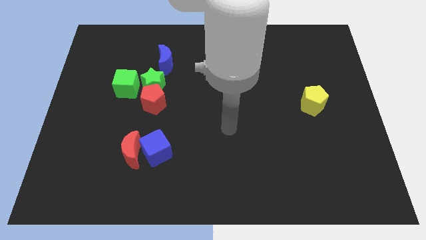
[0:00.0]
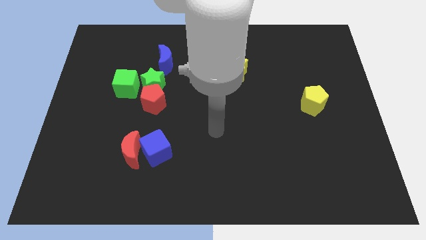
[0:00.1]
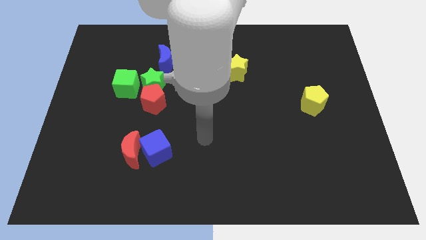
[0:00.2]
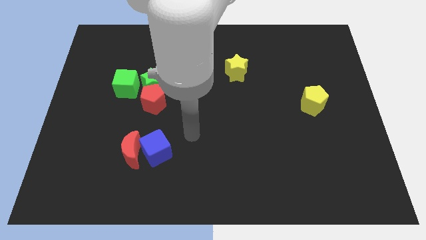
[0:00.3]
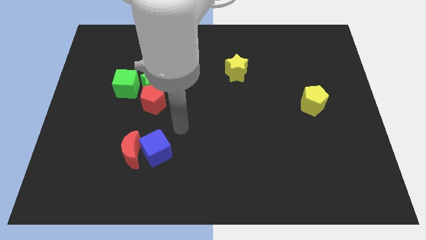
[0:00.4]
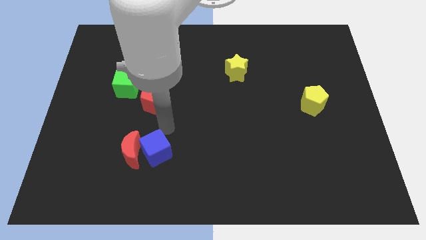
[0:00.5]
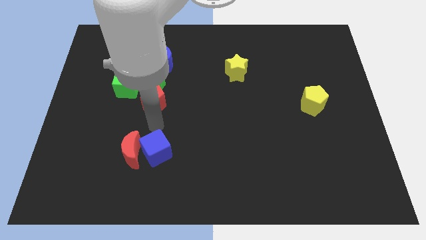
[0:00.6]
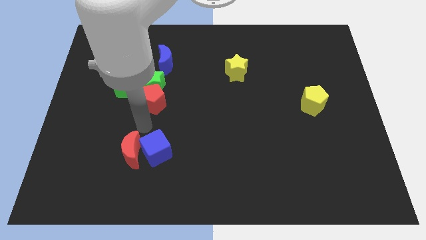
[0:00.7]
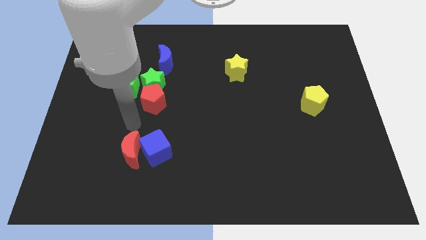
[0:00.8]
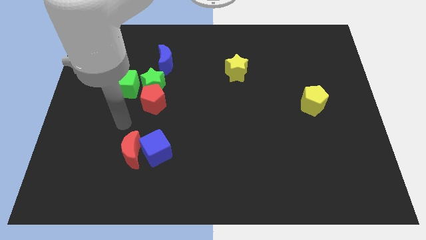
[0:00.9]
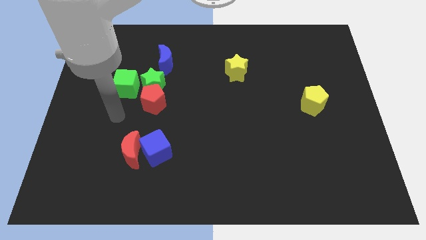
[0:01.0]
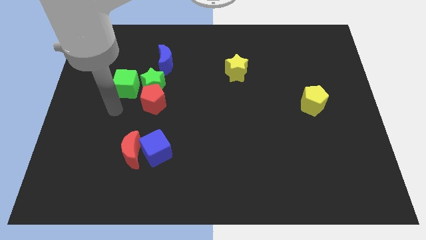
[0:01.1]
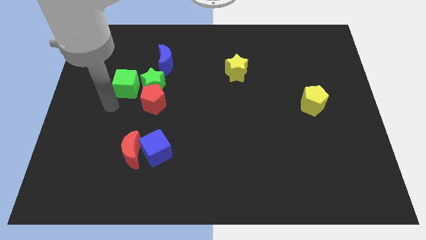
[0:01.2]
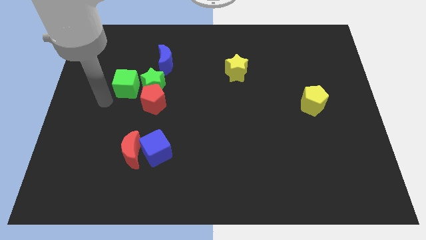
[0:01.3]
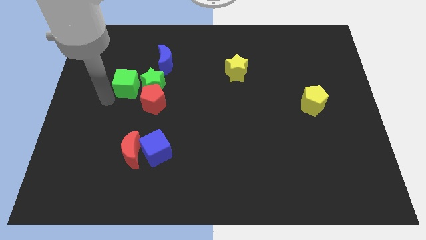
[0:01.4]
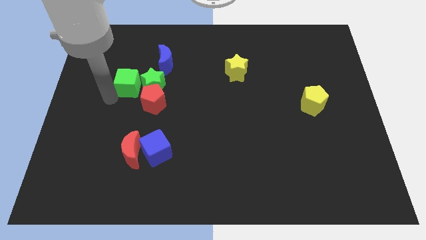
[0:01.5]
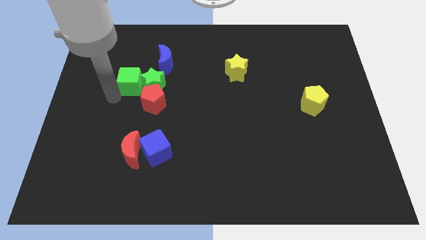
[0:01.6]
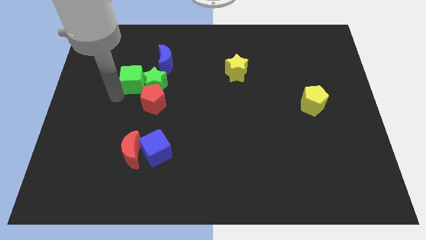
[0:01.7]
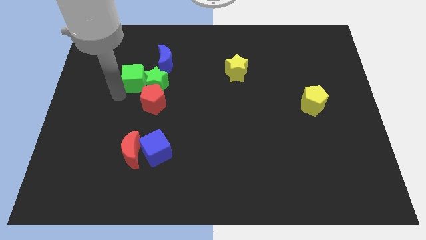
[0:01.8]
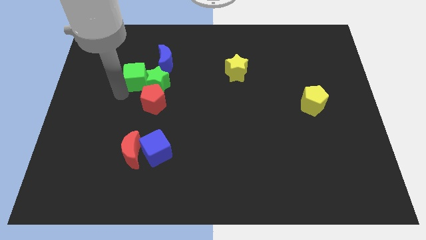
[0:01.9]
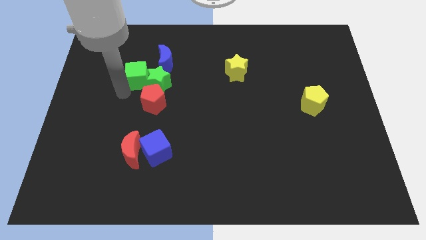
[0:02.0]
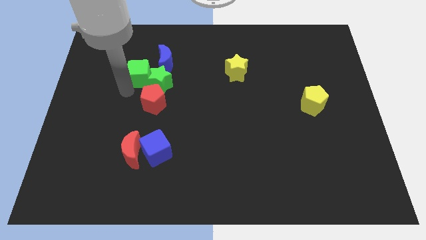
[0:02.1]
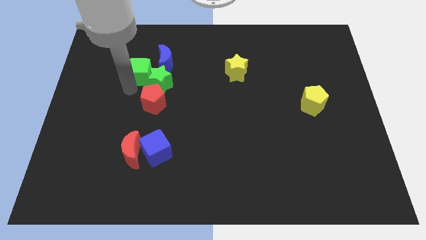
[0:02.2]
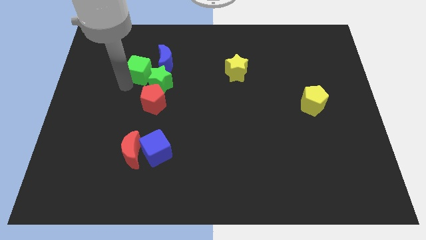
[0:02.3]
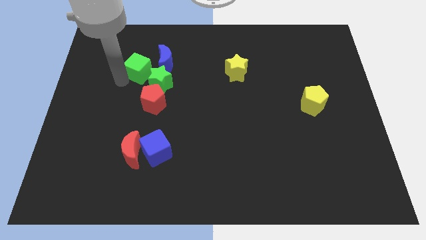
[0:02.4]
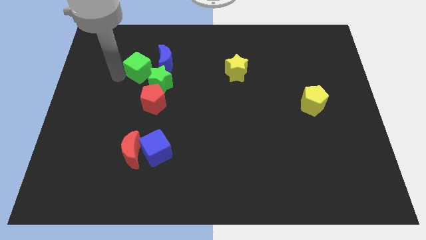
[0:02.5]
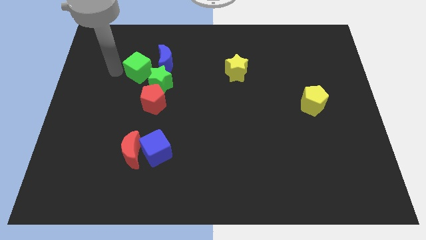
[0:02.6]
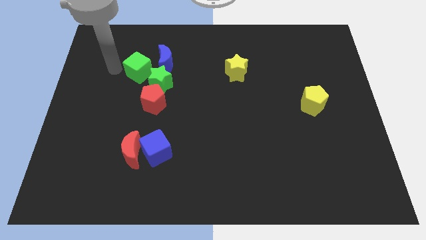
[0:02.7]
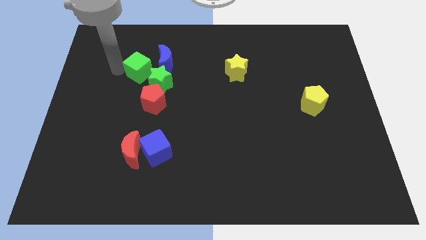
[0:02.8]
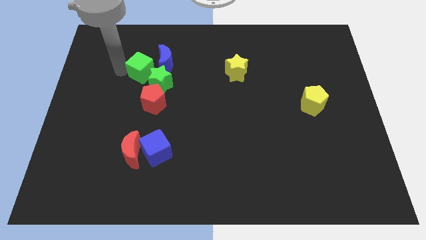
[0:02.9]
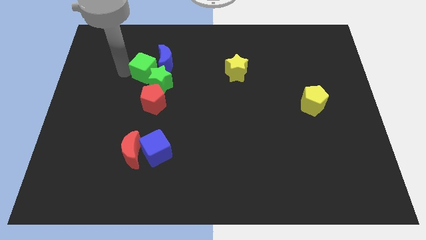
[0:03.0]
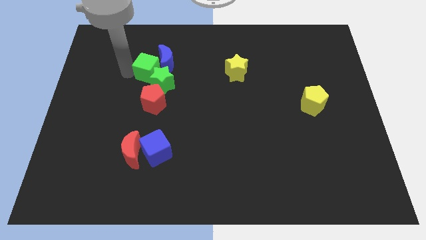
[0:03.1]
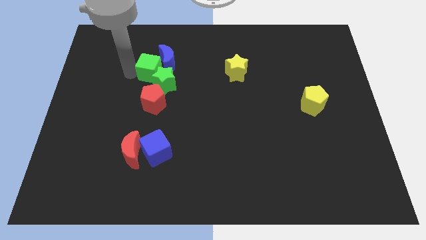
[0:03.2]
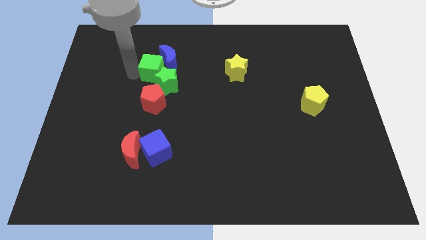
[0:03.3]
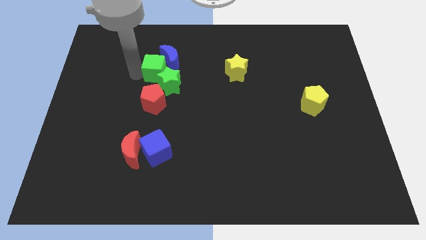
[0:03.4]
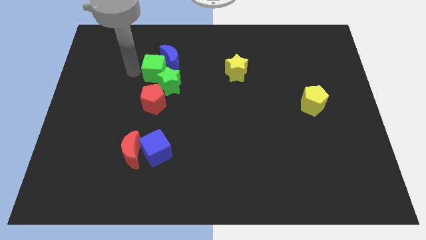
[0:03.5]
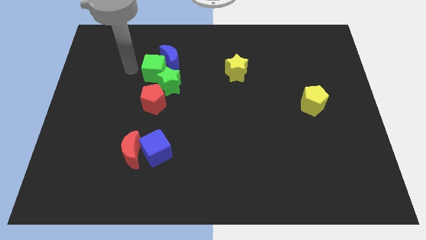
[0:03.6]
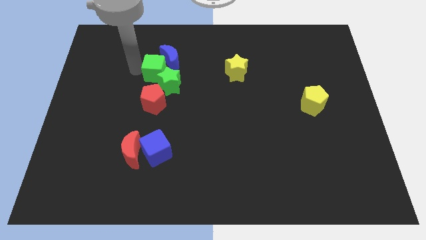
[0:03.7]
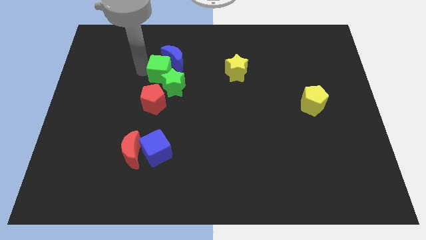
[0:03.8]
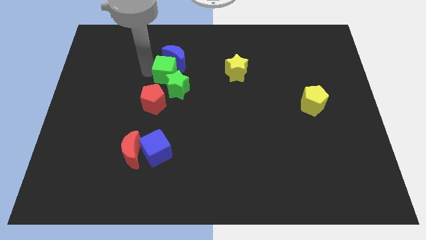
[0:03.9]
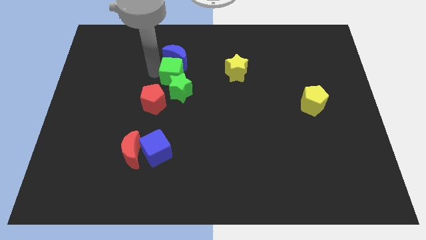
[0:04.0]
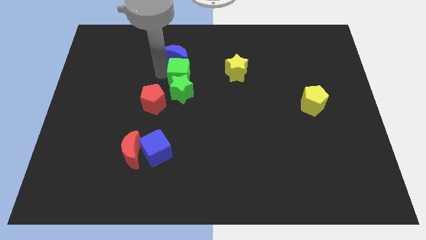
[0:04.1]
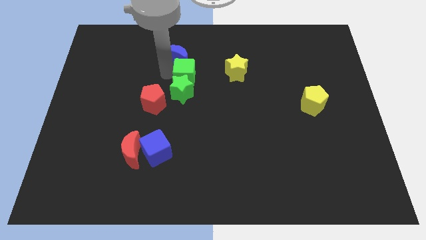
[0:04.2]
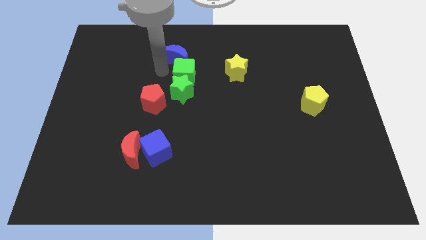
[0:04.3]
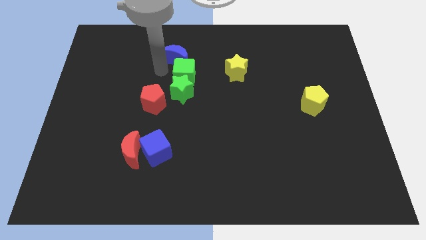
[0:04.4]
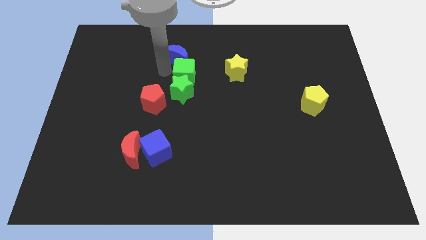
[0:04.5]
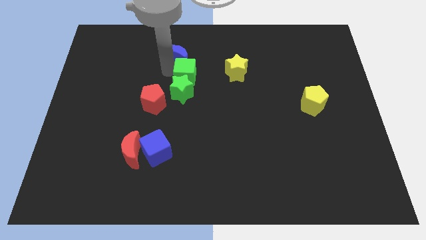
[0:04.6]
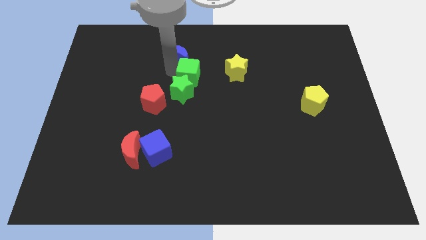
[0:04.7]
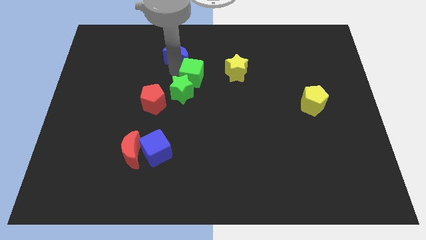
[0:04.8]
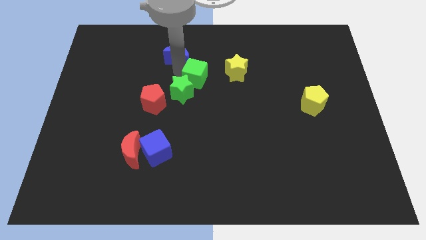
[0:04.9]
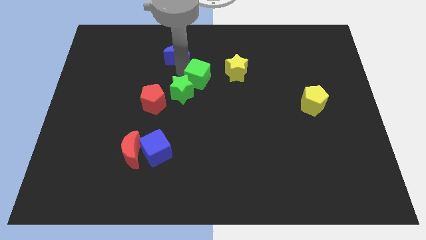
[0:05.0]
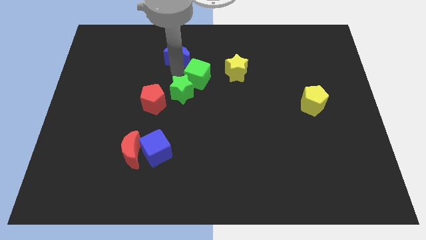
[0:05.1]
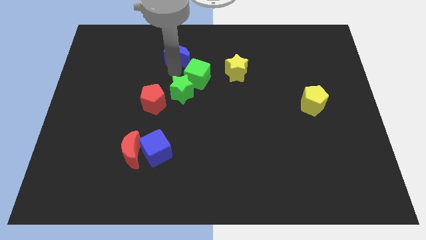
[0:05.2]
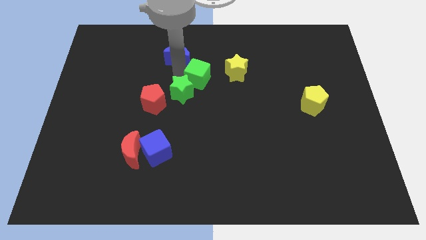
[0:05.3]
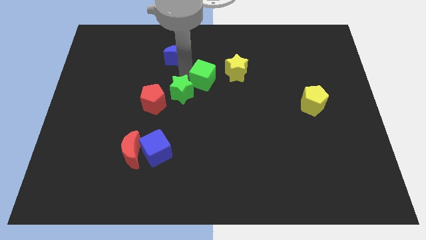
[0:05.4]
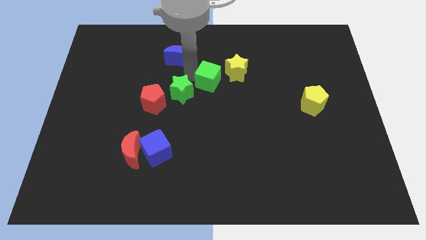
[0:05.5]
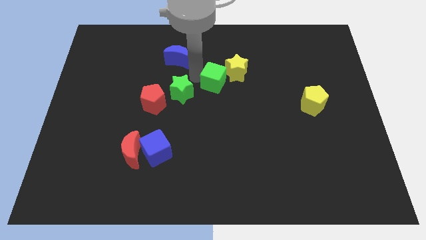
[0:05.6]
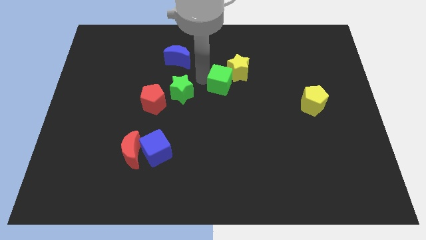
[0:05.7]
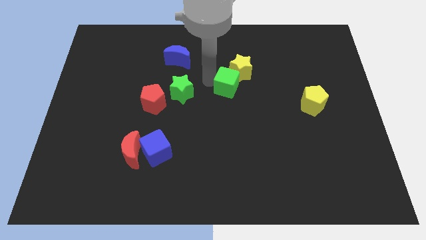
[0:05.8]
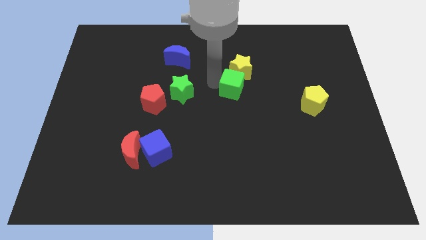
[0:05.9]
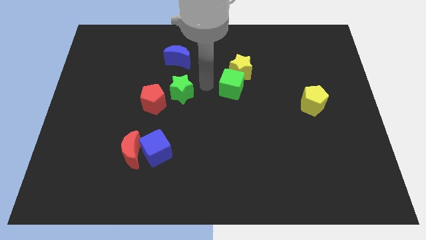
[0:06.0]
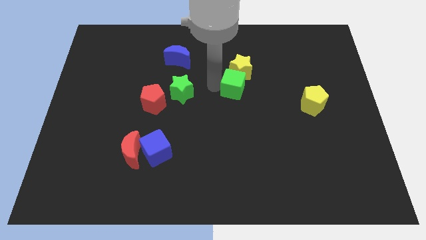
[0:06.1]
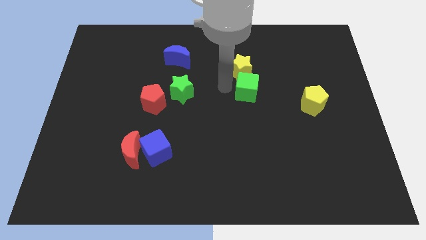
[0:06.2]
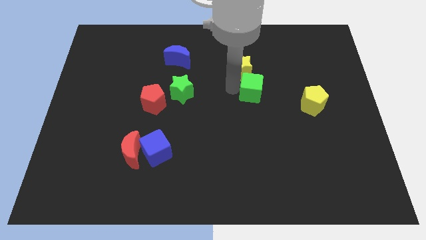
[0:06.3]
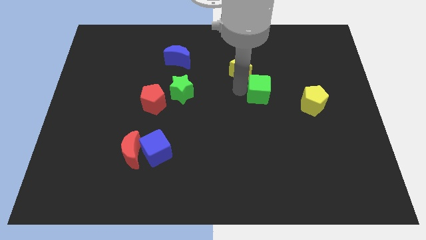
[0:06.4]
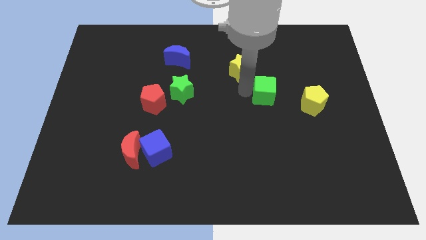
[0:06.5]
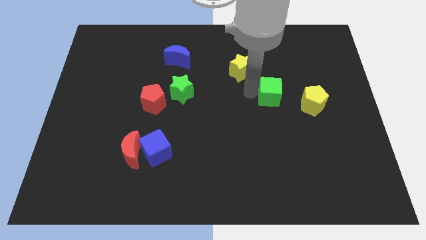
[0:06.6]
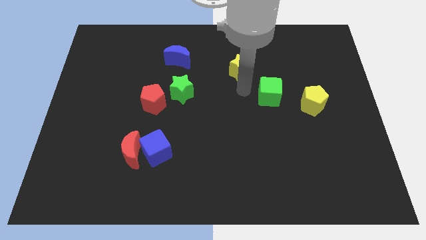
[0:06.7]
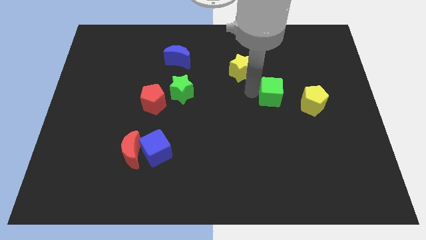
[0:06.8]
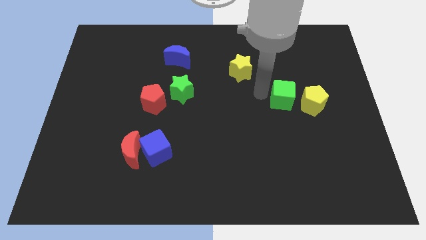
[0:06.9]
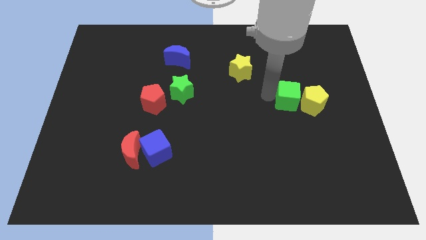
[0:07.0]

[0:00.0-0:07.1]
put the green cube close to the yellow pentagon

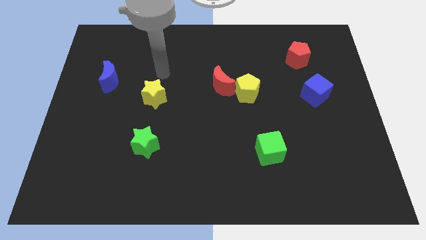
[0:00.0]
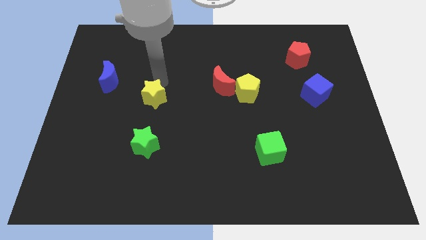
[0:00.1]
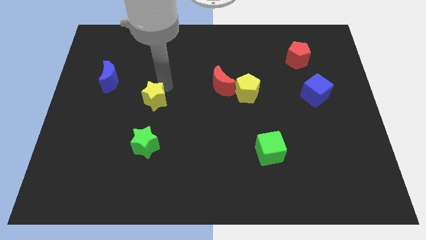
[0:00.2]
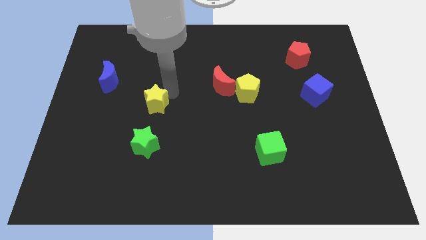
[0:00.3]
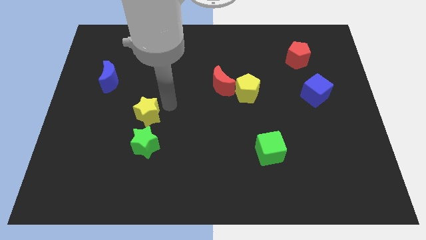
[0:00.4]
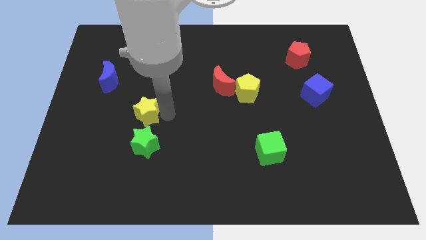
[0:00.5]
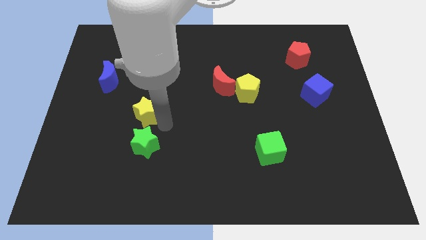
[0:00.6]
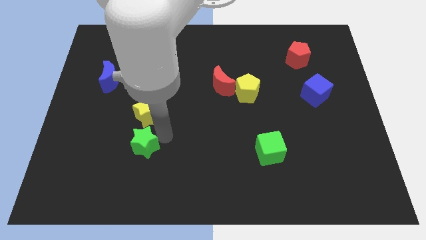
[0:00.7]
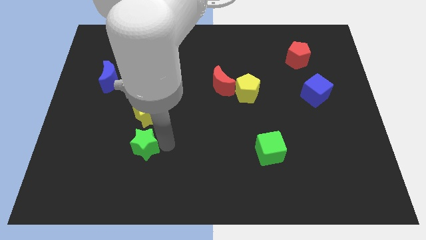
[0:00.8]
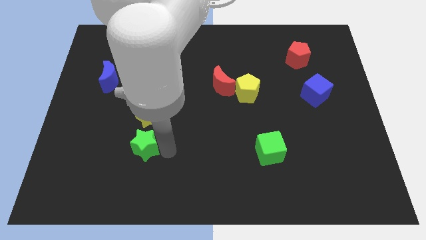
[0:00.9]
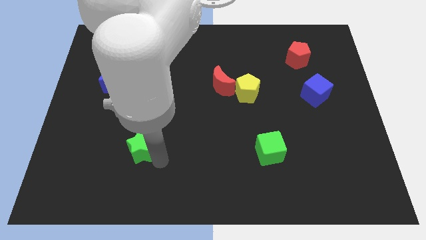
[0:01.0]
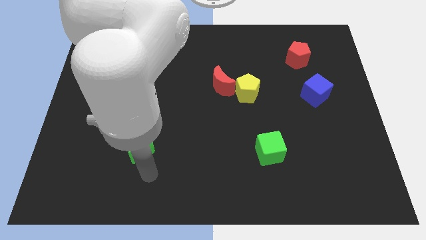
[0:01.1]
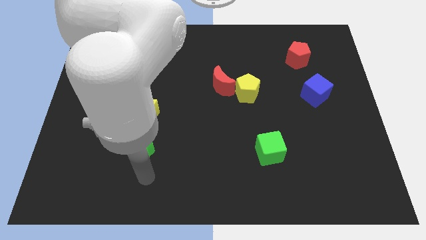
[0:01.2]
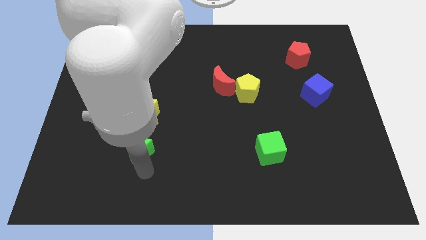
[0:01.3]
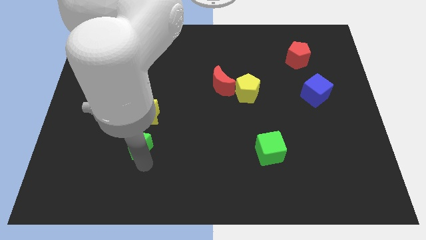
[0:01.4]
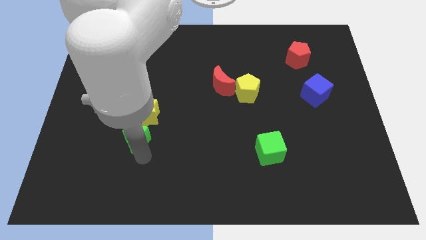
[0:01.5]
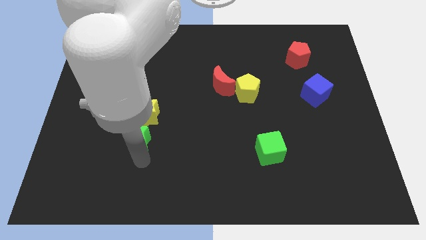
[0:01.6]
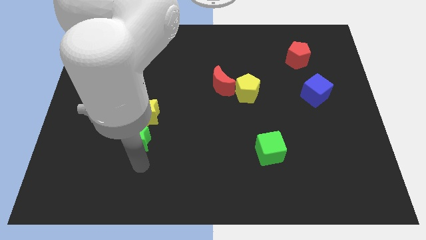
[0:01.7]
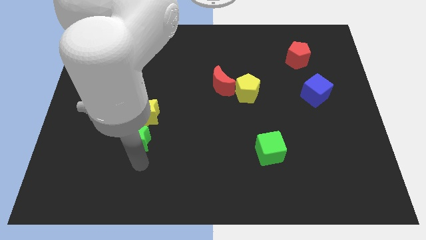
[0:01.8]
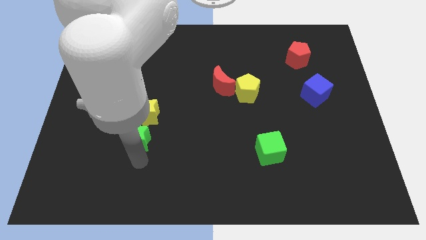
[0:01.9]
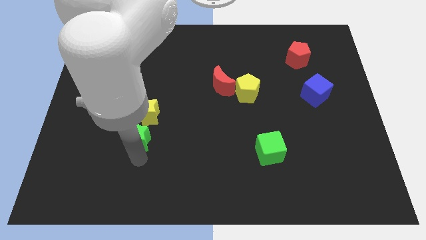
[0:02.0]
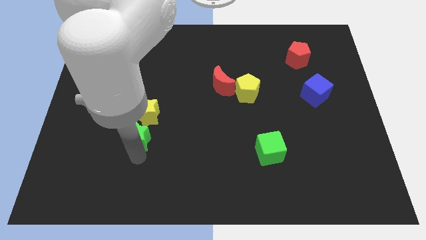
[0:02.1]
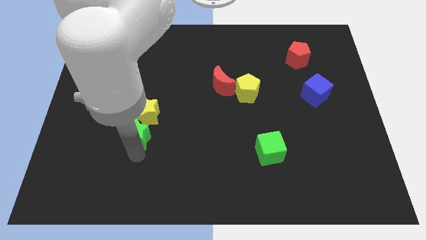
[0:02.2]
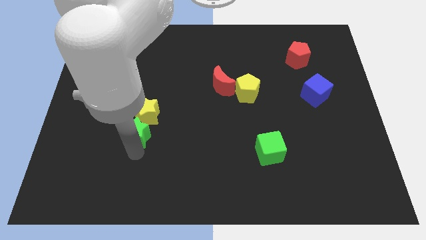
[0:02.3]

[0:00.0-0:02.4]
put the green star to the yellow star
